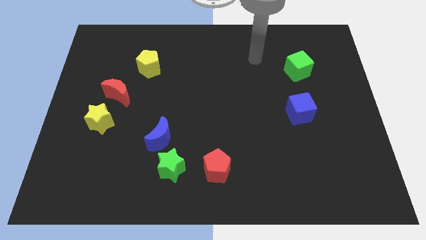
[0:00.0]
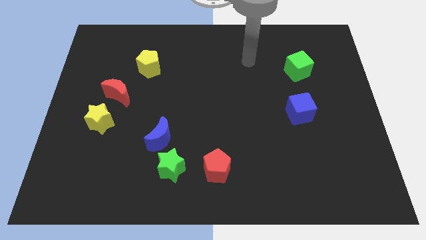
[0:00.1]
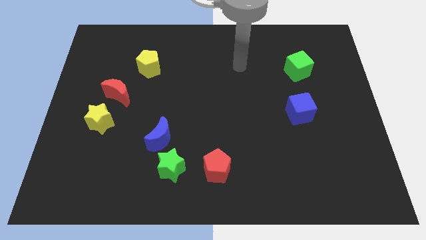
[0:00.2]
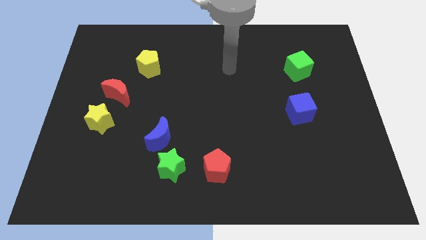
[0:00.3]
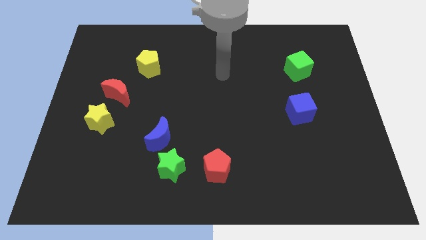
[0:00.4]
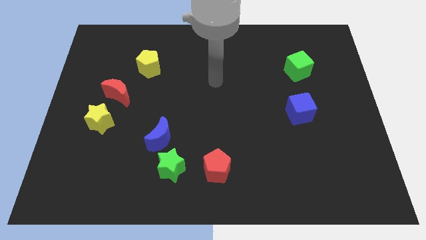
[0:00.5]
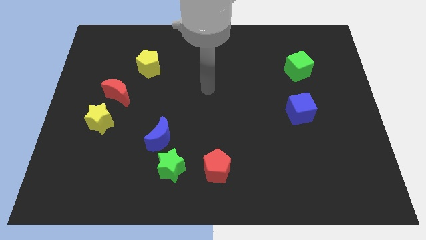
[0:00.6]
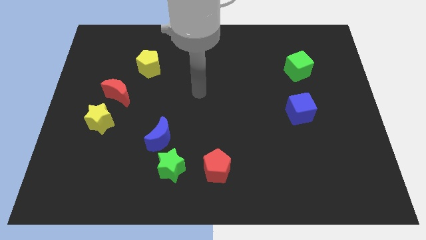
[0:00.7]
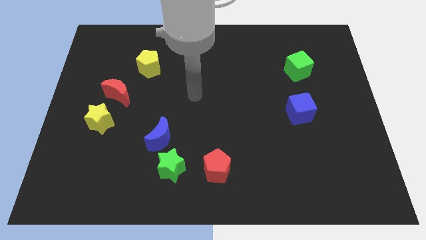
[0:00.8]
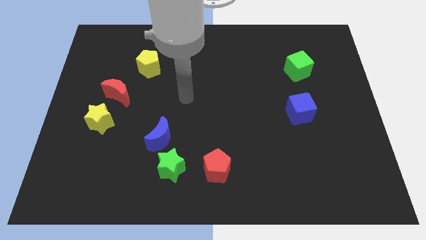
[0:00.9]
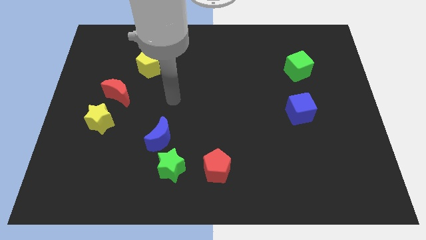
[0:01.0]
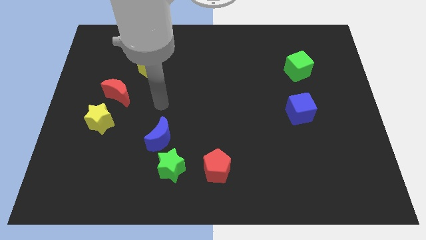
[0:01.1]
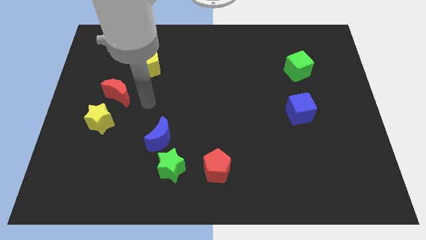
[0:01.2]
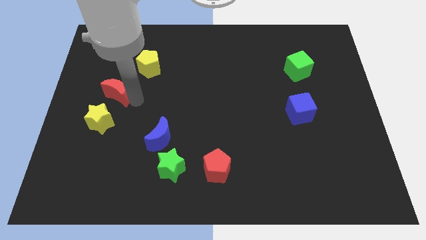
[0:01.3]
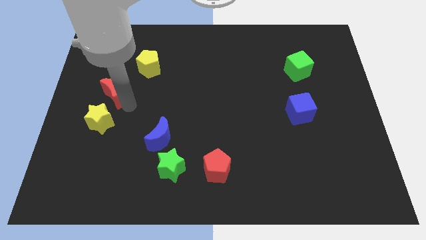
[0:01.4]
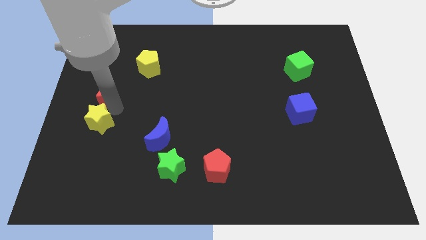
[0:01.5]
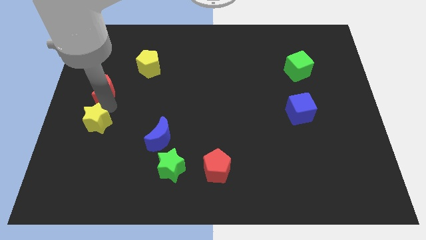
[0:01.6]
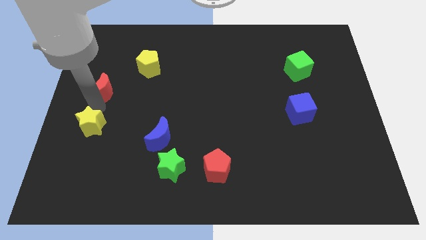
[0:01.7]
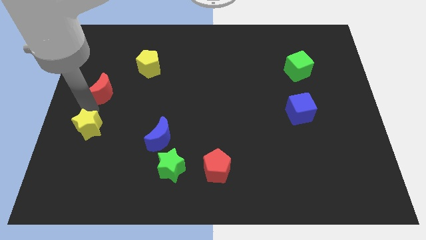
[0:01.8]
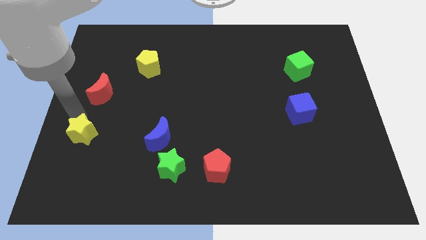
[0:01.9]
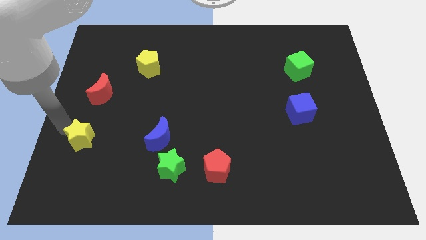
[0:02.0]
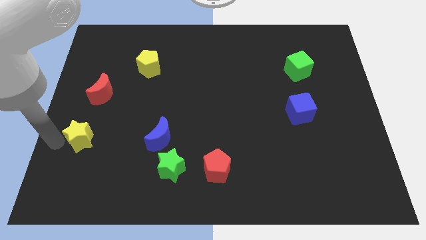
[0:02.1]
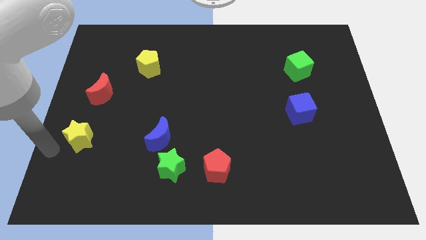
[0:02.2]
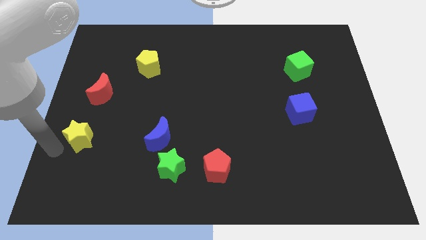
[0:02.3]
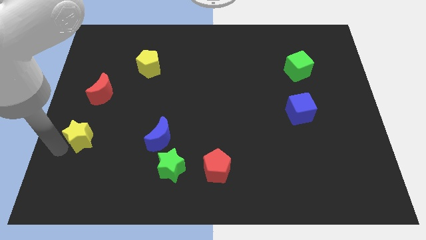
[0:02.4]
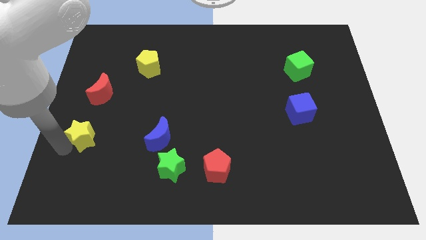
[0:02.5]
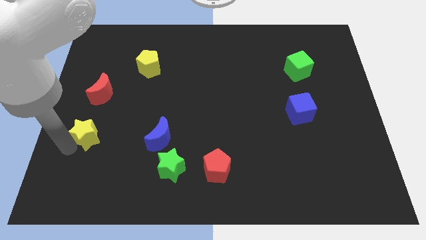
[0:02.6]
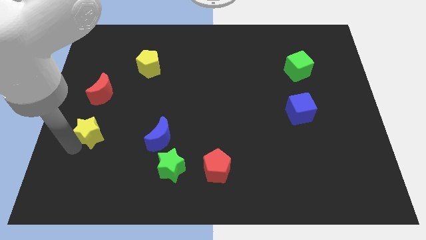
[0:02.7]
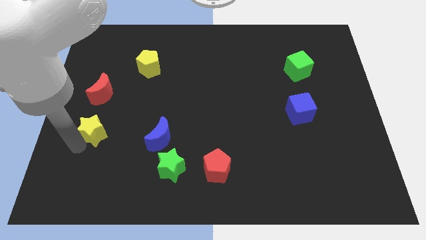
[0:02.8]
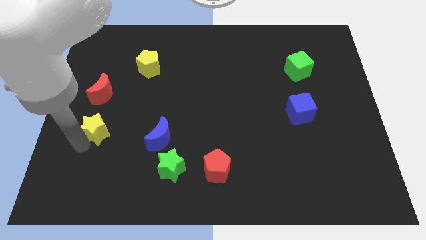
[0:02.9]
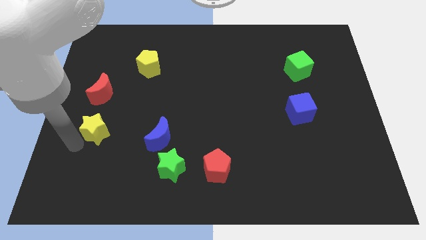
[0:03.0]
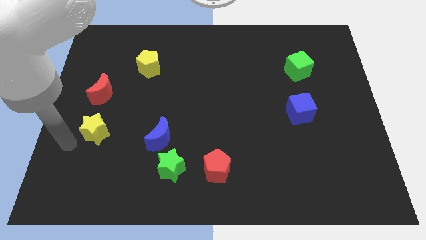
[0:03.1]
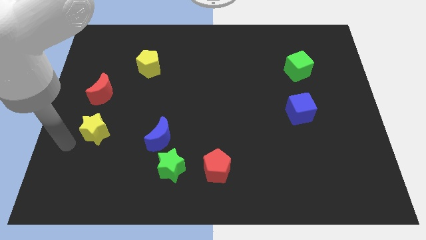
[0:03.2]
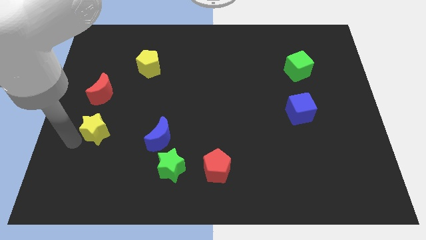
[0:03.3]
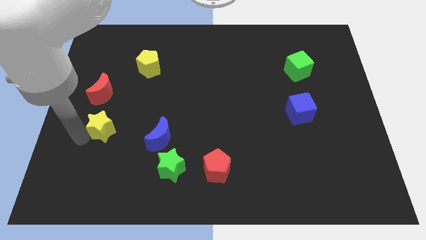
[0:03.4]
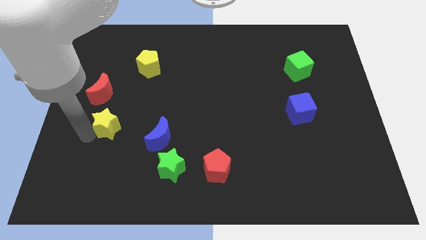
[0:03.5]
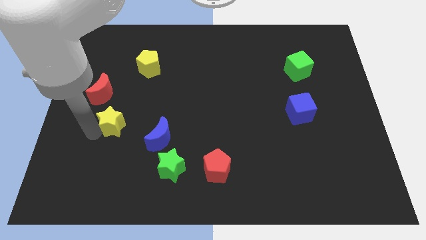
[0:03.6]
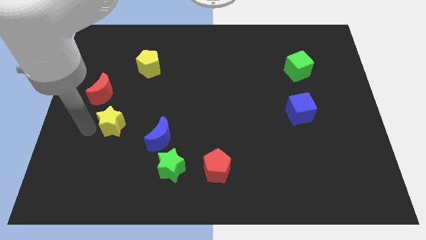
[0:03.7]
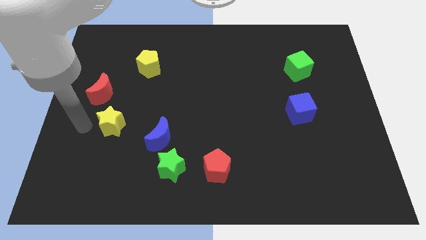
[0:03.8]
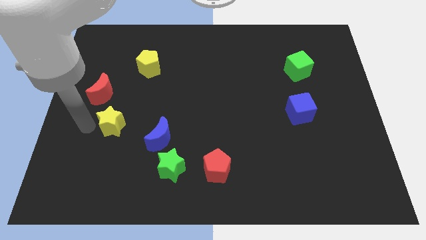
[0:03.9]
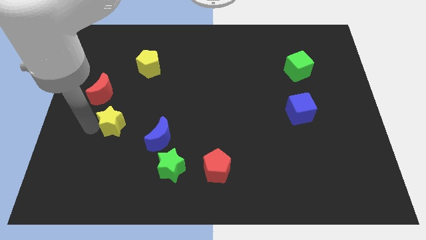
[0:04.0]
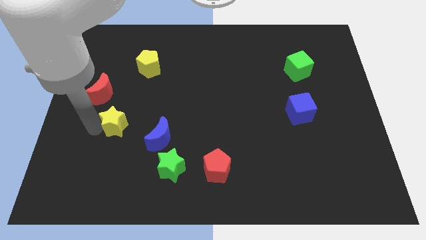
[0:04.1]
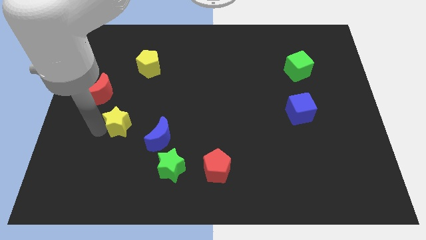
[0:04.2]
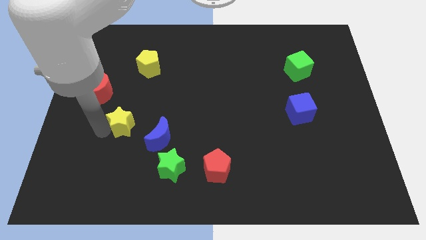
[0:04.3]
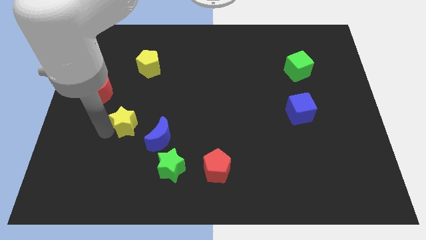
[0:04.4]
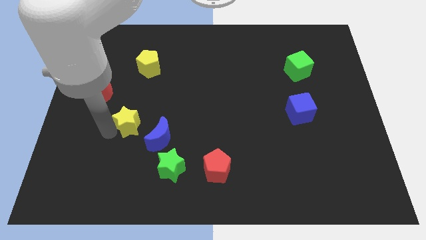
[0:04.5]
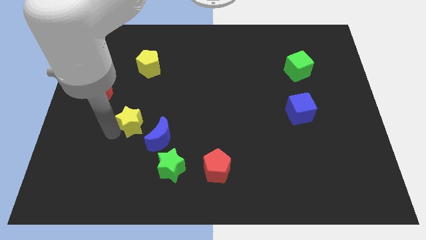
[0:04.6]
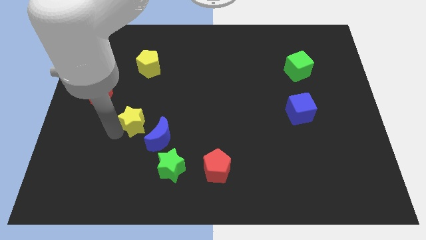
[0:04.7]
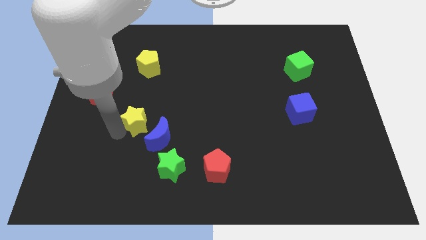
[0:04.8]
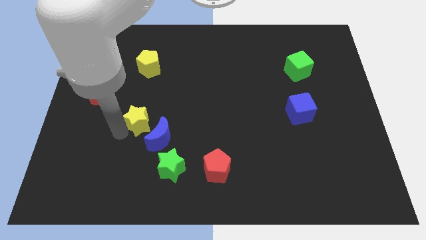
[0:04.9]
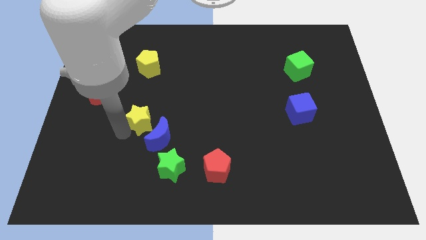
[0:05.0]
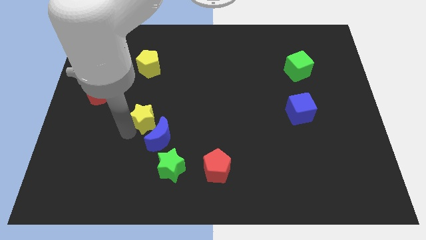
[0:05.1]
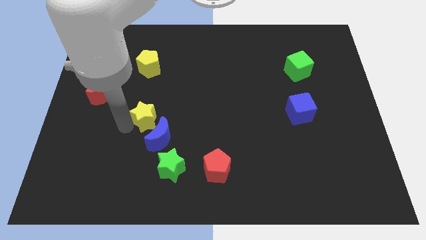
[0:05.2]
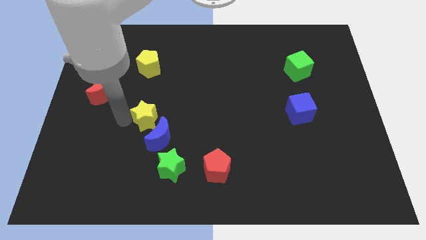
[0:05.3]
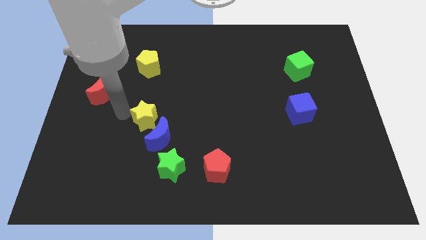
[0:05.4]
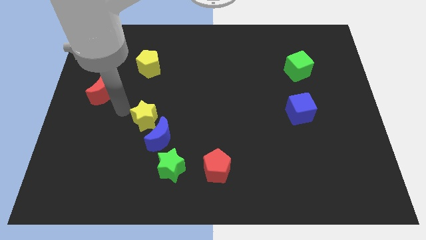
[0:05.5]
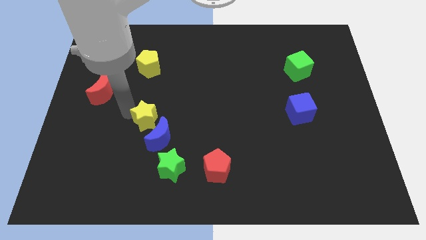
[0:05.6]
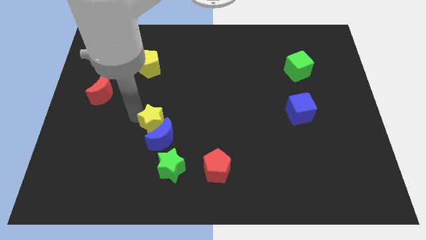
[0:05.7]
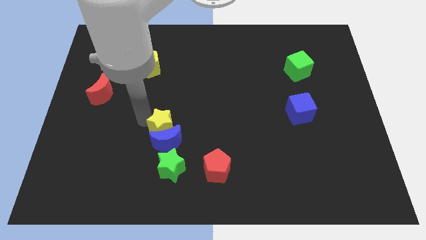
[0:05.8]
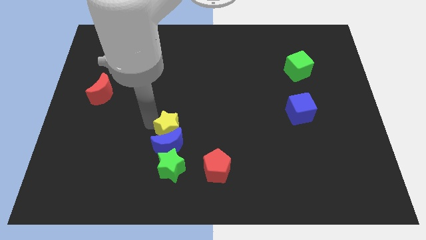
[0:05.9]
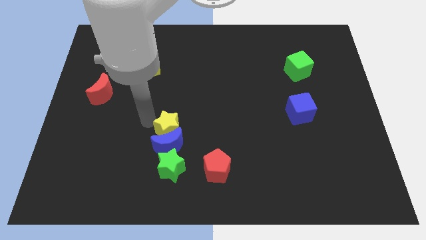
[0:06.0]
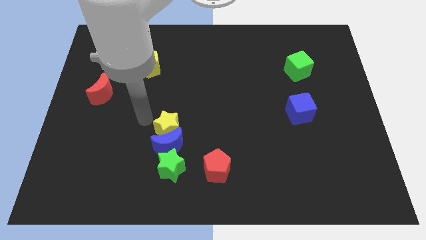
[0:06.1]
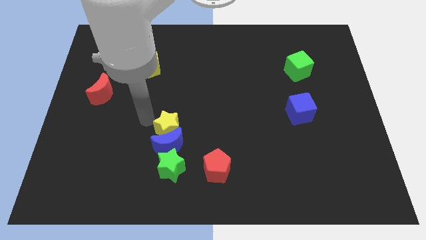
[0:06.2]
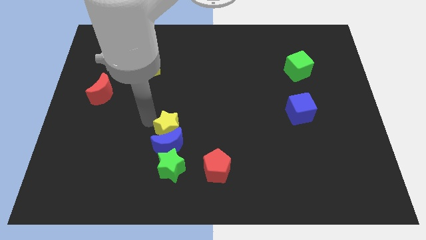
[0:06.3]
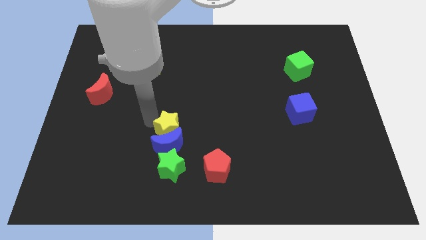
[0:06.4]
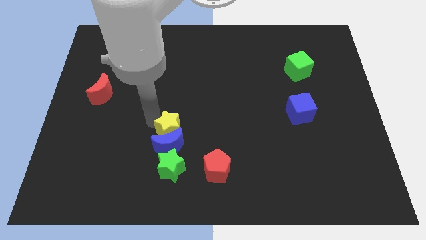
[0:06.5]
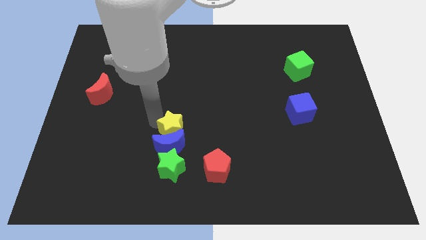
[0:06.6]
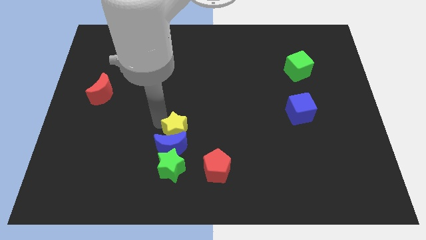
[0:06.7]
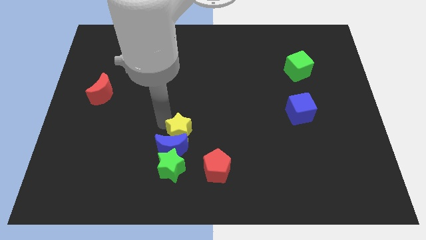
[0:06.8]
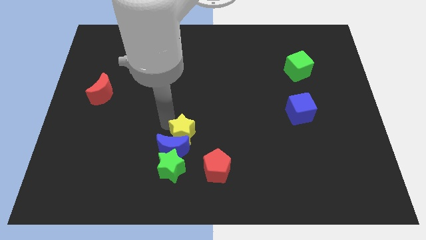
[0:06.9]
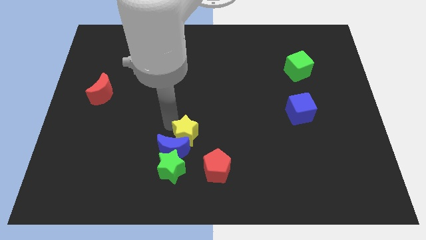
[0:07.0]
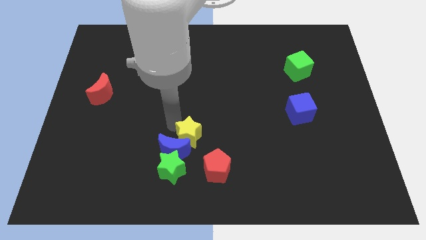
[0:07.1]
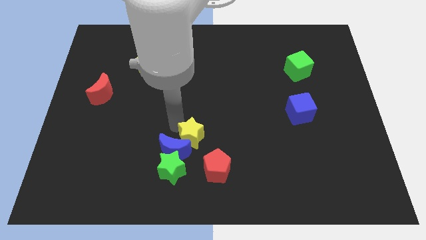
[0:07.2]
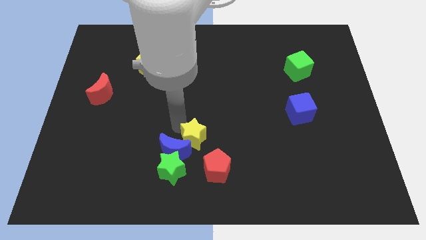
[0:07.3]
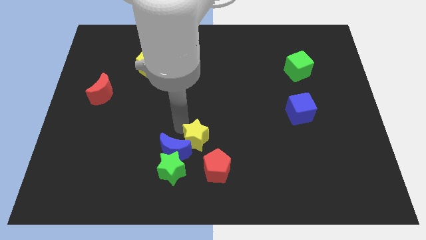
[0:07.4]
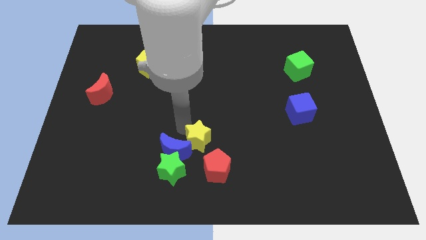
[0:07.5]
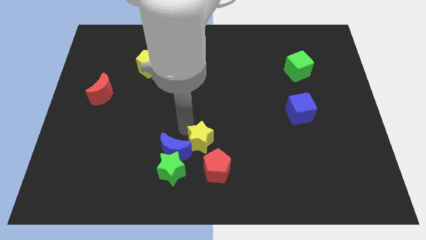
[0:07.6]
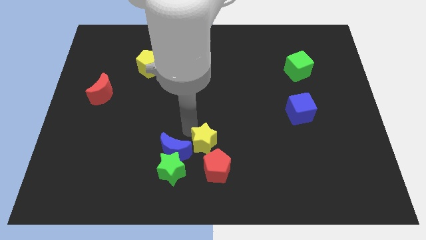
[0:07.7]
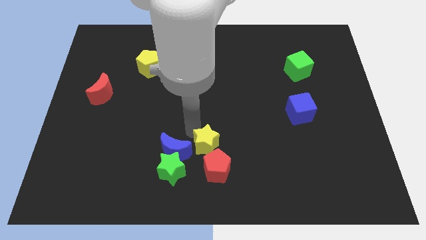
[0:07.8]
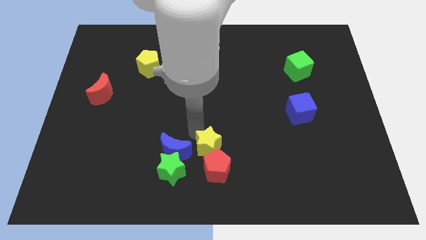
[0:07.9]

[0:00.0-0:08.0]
push the yellow star towards the red pentagon
